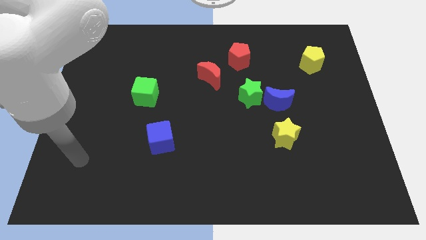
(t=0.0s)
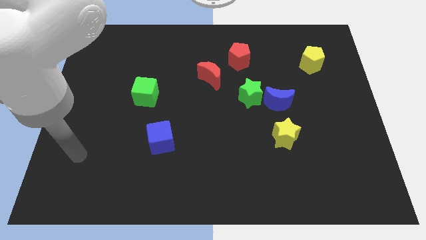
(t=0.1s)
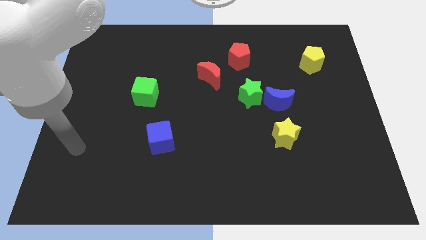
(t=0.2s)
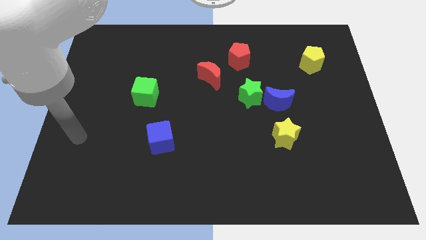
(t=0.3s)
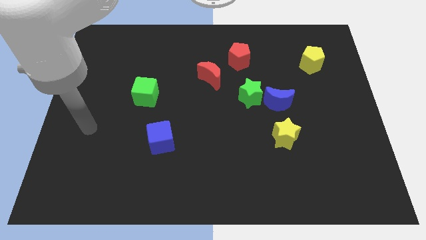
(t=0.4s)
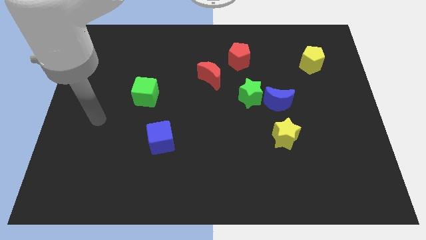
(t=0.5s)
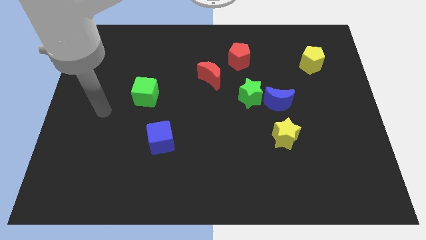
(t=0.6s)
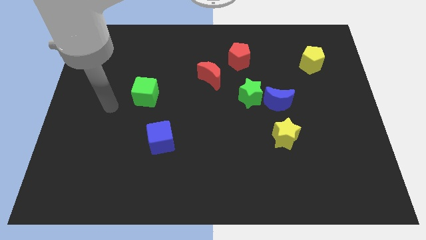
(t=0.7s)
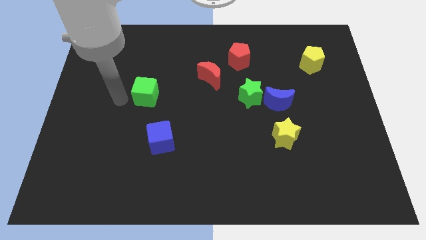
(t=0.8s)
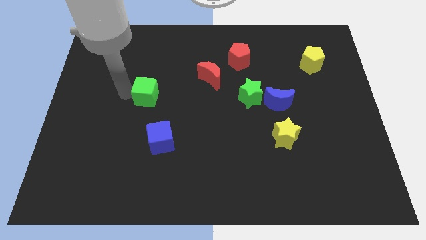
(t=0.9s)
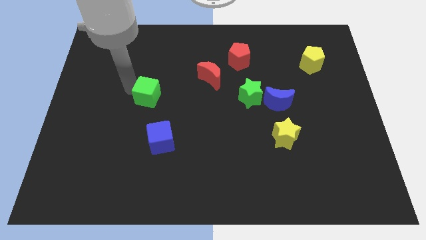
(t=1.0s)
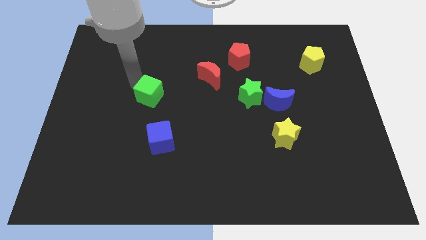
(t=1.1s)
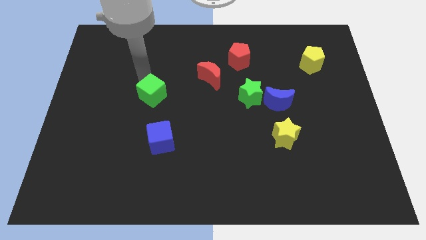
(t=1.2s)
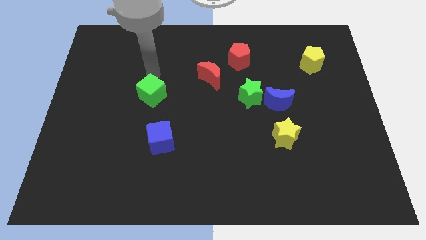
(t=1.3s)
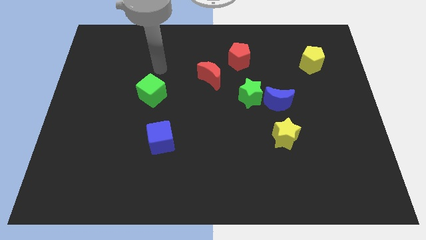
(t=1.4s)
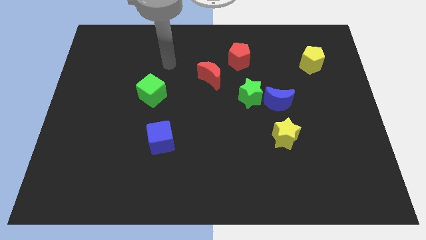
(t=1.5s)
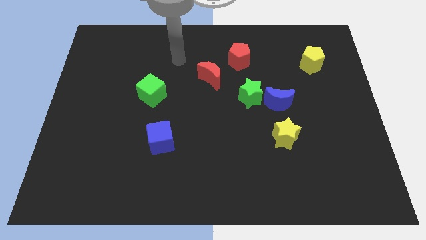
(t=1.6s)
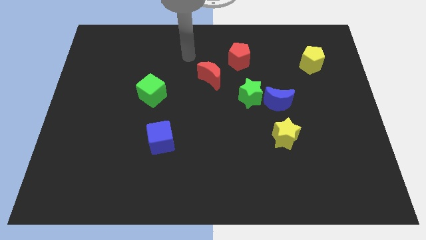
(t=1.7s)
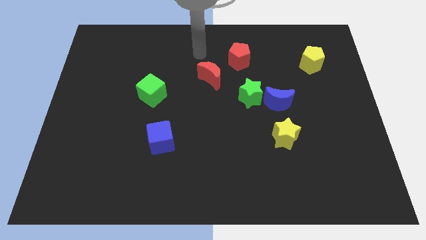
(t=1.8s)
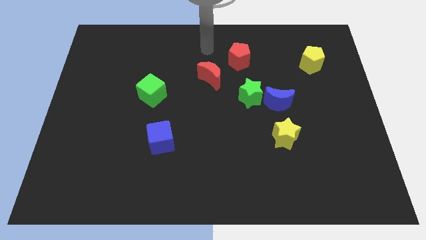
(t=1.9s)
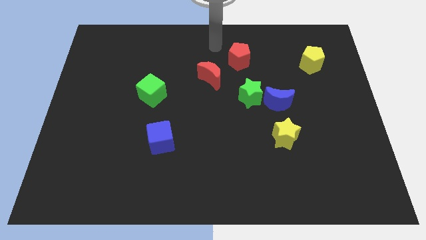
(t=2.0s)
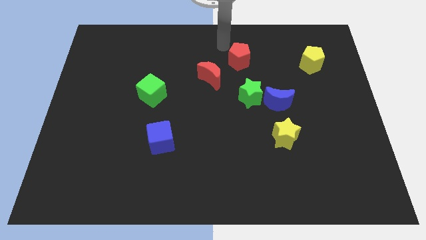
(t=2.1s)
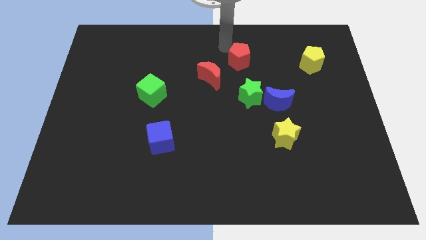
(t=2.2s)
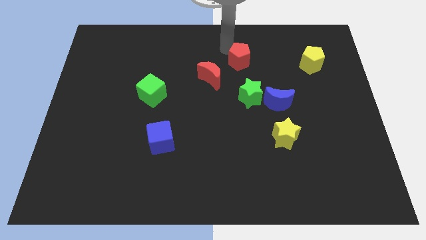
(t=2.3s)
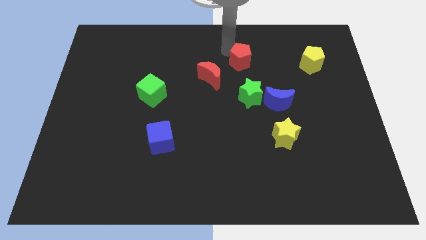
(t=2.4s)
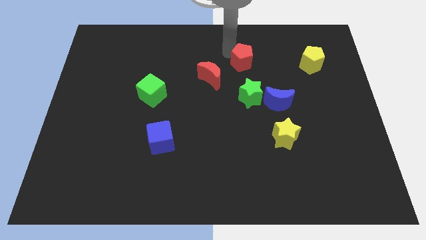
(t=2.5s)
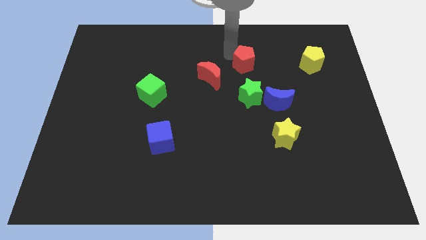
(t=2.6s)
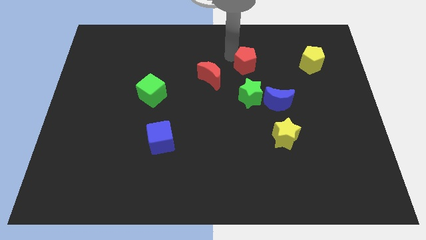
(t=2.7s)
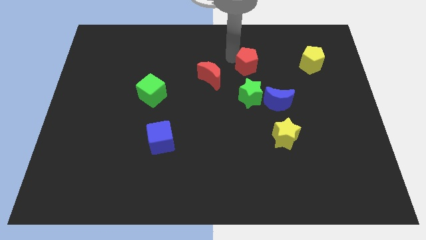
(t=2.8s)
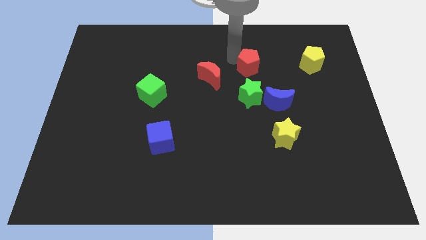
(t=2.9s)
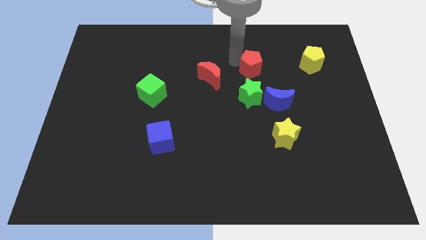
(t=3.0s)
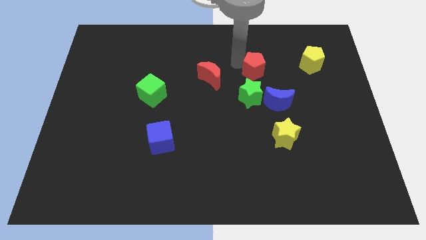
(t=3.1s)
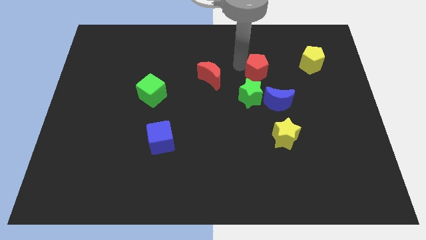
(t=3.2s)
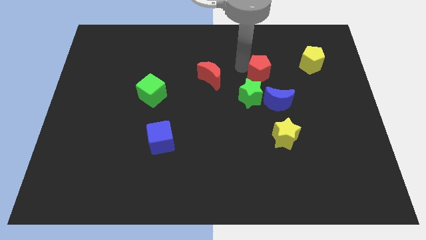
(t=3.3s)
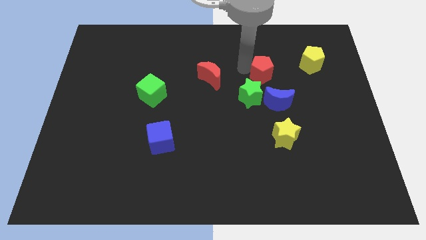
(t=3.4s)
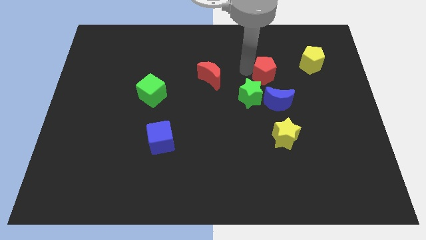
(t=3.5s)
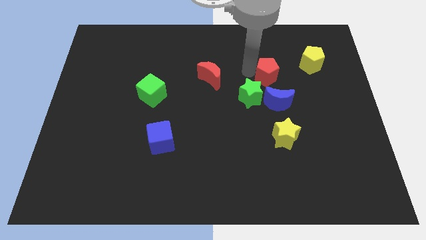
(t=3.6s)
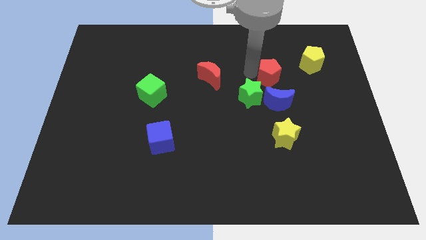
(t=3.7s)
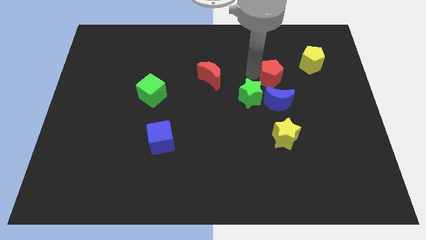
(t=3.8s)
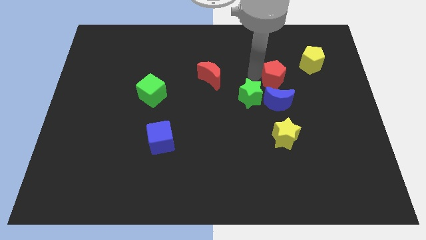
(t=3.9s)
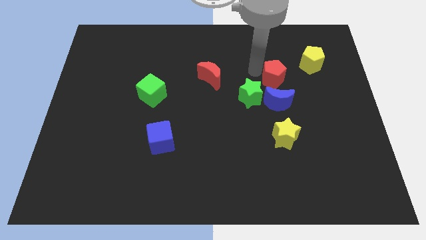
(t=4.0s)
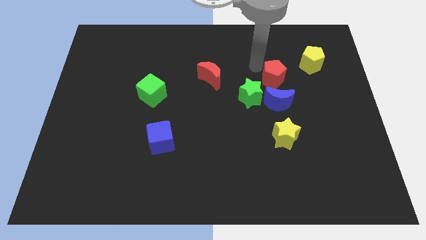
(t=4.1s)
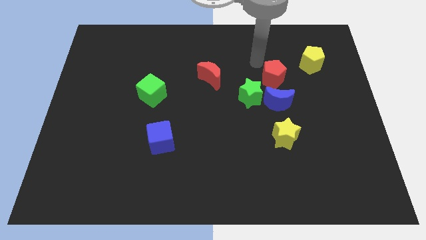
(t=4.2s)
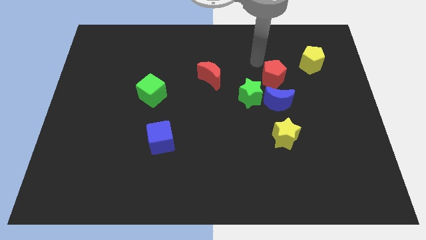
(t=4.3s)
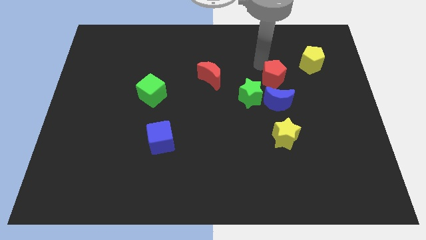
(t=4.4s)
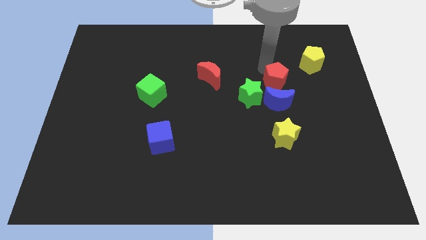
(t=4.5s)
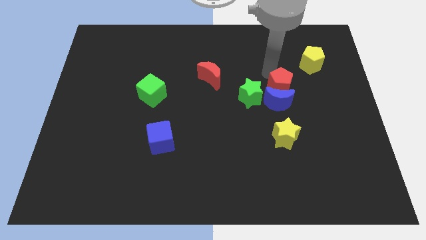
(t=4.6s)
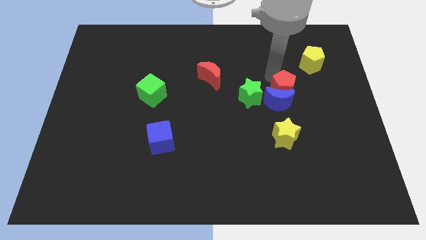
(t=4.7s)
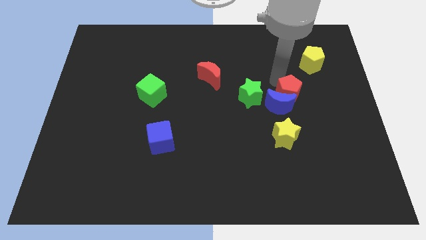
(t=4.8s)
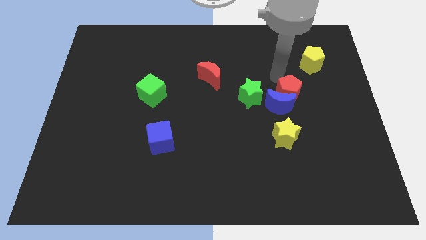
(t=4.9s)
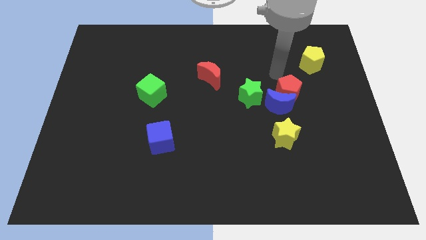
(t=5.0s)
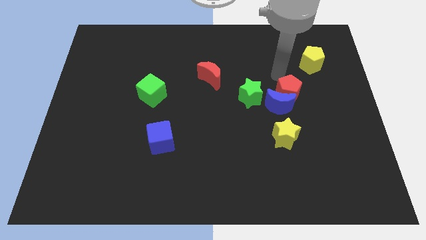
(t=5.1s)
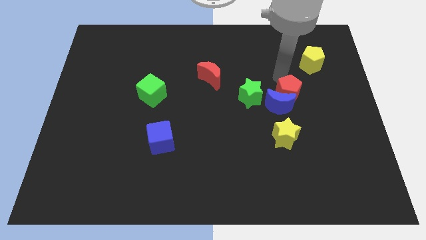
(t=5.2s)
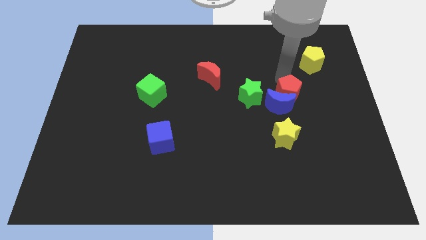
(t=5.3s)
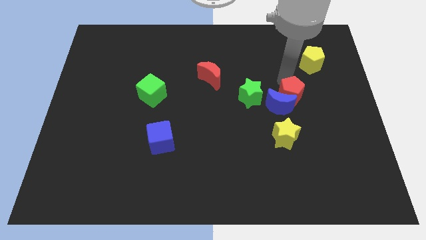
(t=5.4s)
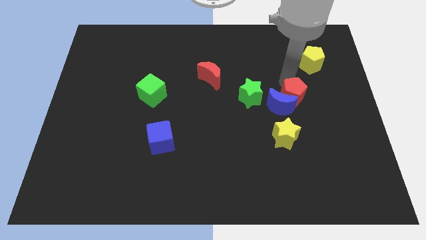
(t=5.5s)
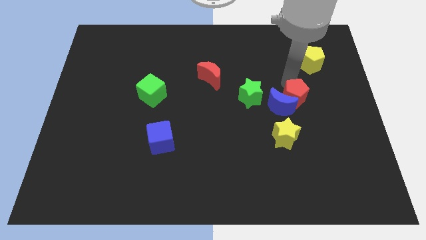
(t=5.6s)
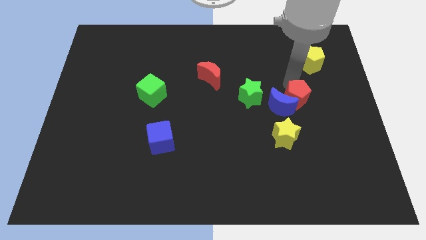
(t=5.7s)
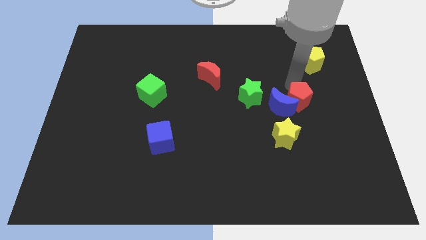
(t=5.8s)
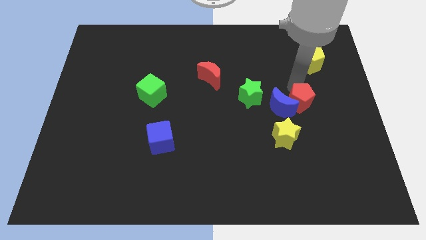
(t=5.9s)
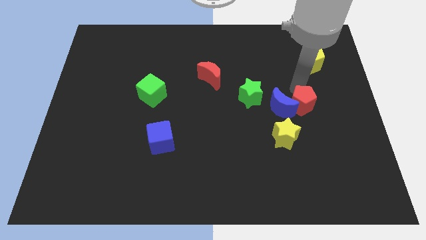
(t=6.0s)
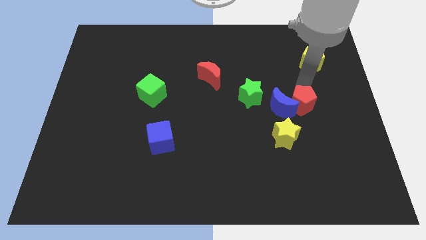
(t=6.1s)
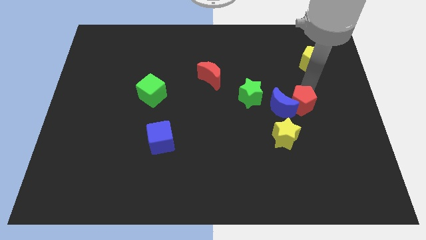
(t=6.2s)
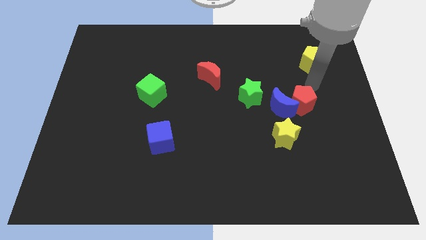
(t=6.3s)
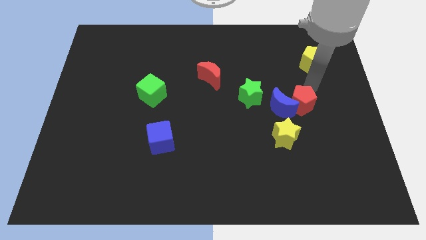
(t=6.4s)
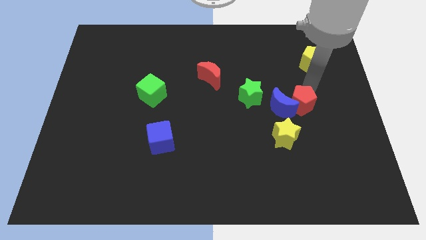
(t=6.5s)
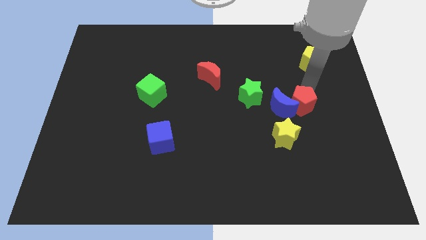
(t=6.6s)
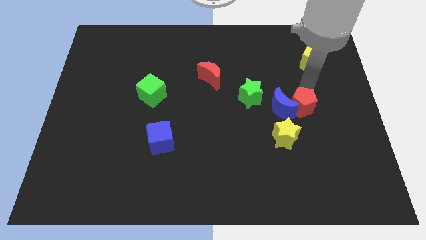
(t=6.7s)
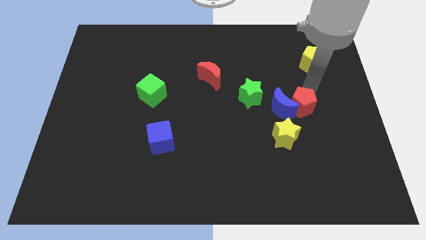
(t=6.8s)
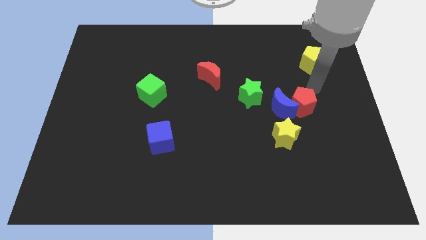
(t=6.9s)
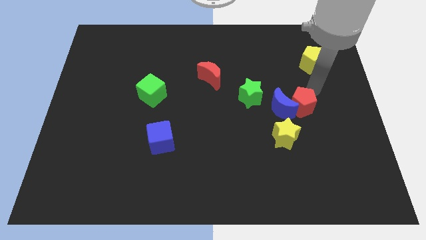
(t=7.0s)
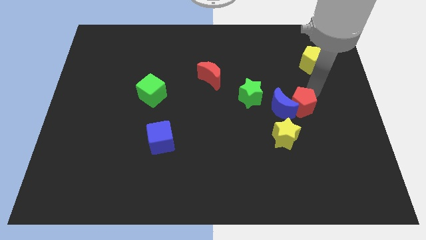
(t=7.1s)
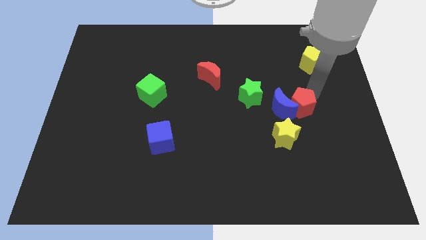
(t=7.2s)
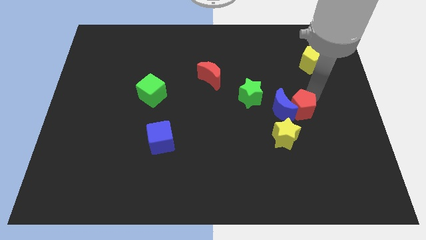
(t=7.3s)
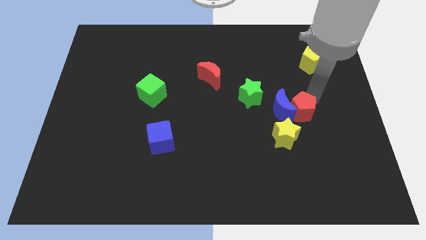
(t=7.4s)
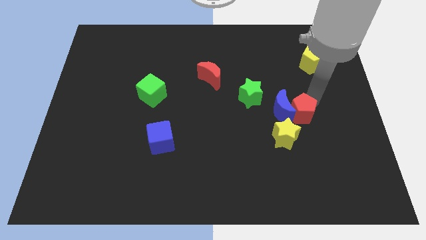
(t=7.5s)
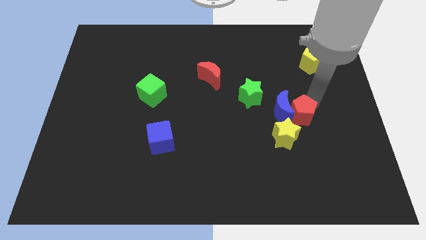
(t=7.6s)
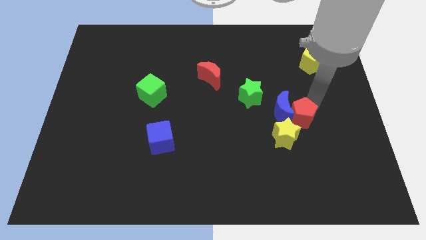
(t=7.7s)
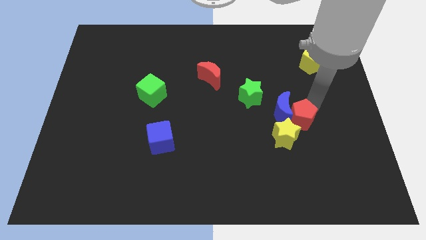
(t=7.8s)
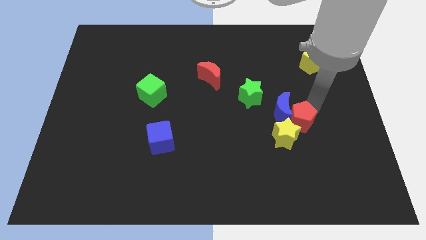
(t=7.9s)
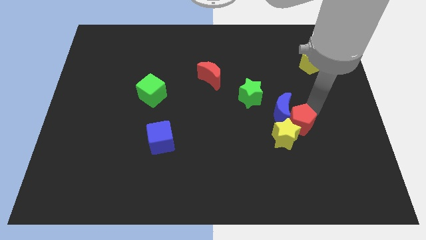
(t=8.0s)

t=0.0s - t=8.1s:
move the red pentagon to the yellow star
